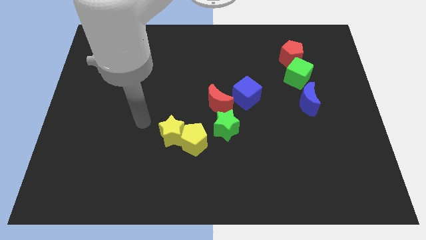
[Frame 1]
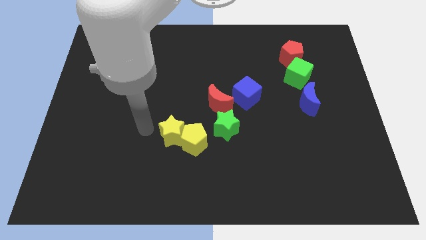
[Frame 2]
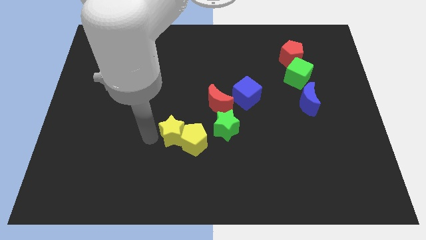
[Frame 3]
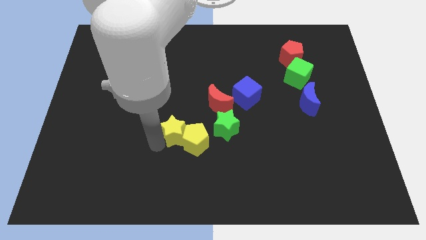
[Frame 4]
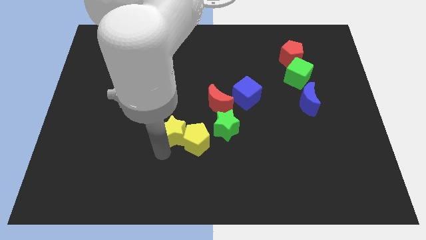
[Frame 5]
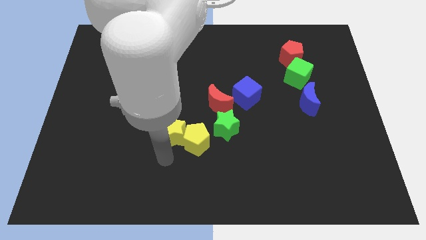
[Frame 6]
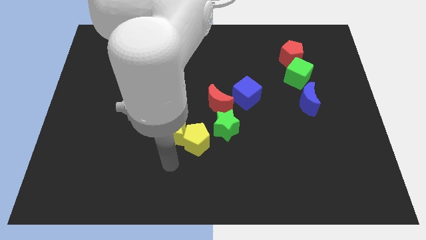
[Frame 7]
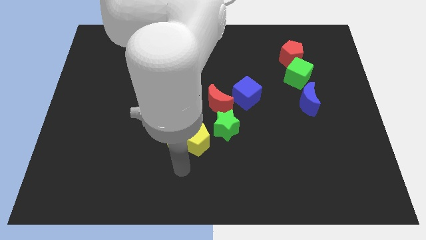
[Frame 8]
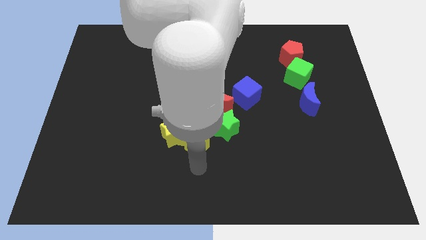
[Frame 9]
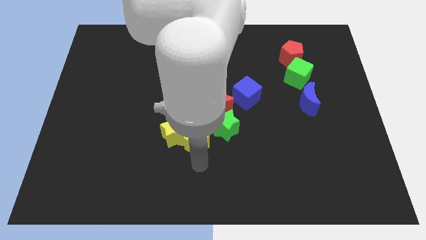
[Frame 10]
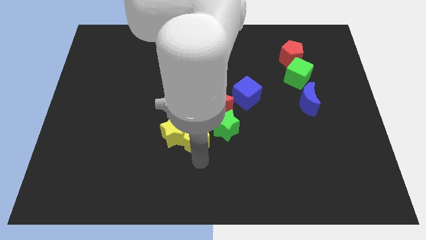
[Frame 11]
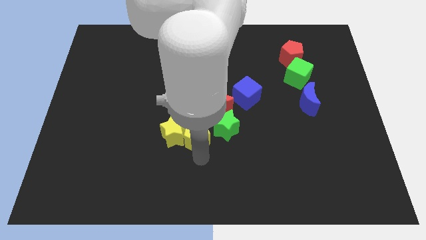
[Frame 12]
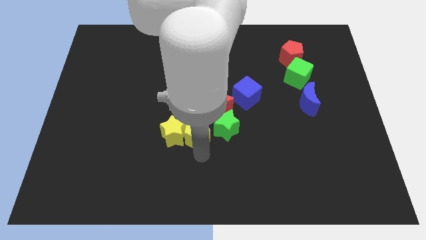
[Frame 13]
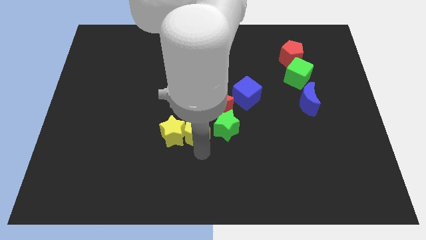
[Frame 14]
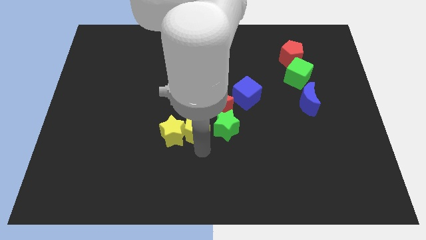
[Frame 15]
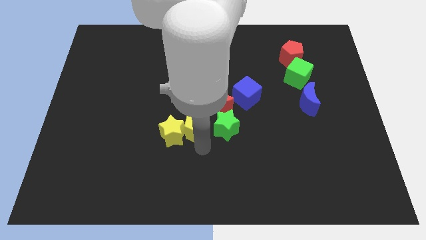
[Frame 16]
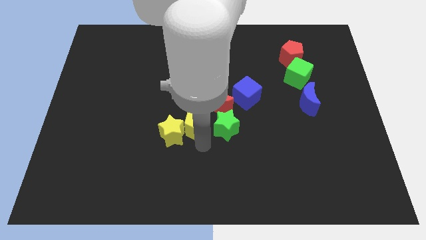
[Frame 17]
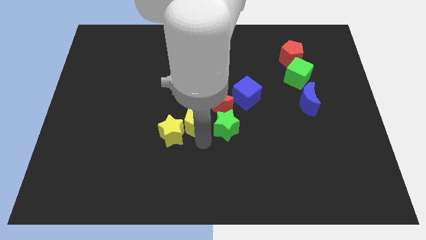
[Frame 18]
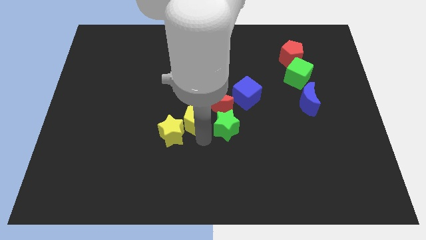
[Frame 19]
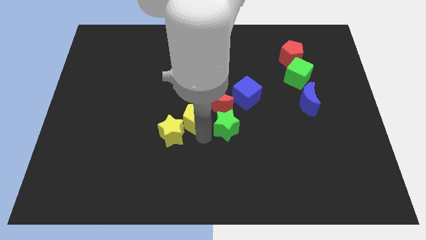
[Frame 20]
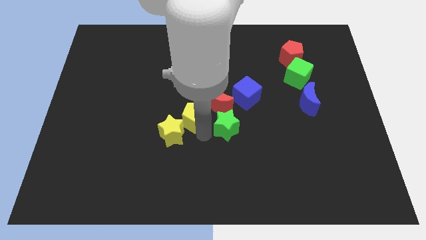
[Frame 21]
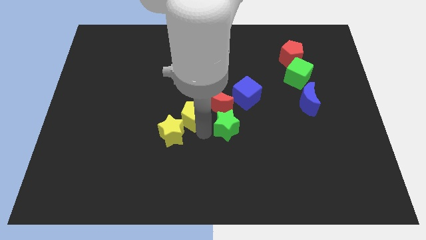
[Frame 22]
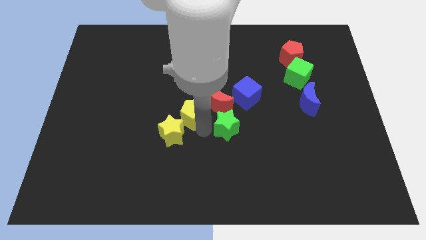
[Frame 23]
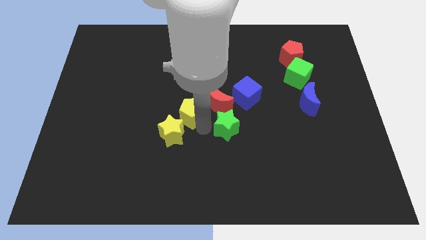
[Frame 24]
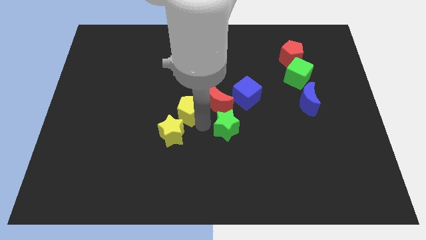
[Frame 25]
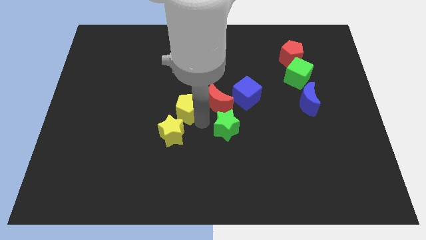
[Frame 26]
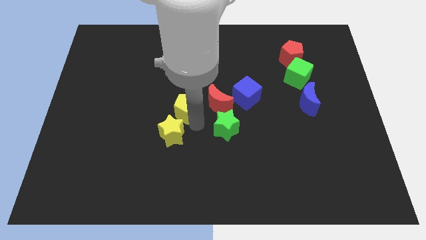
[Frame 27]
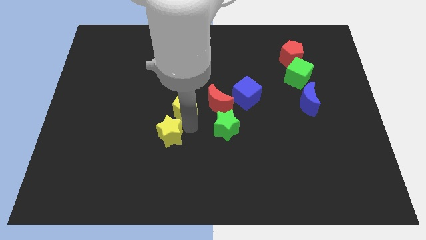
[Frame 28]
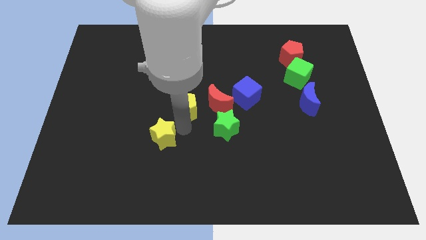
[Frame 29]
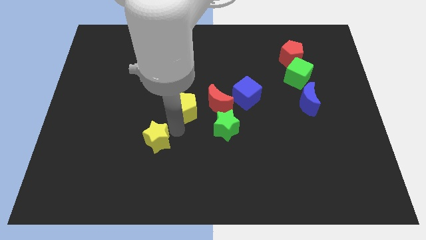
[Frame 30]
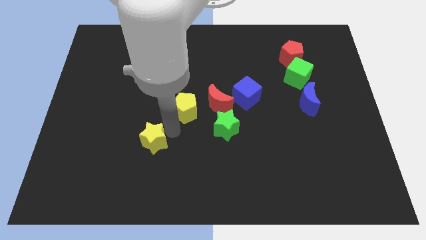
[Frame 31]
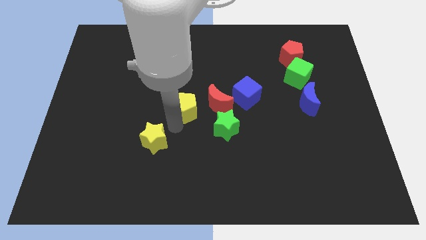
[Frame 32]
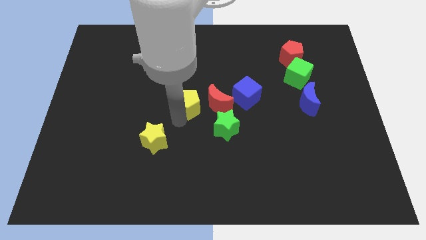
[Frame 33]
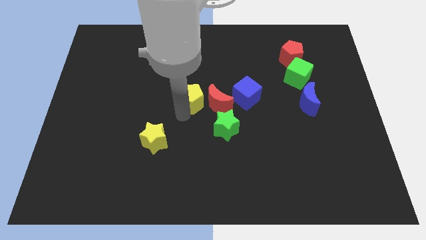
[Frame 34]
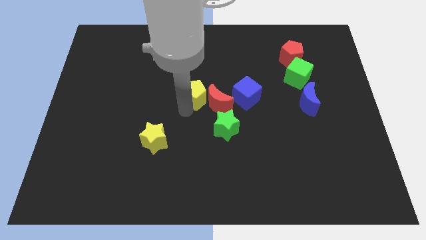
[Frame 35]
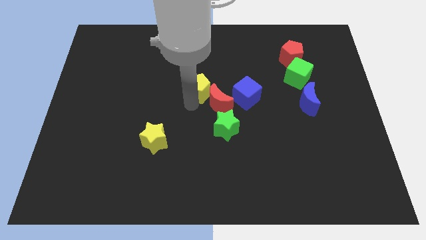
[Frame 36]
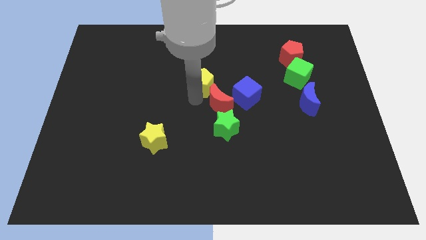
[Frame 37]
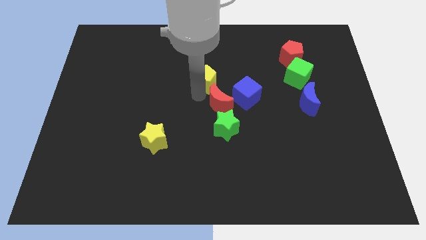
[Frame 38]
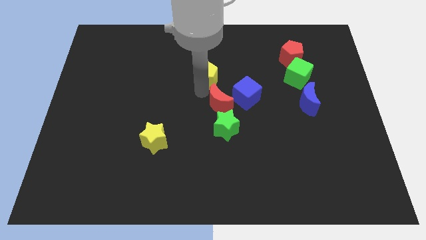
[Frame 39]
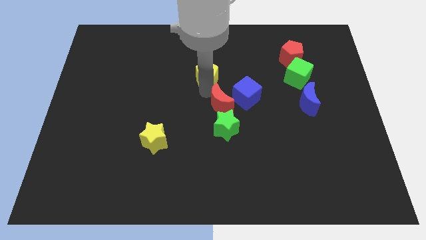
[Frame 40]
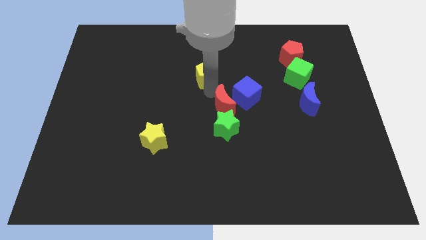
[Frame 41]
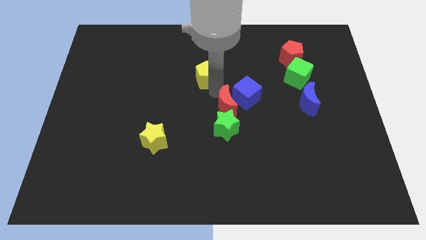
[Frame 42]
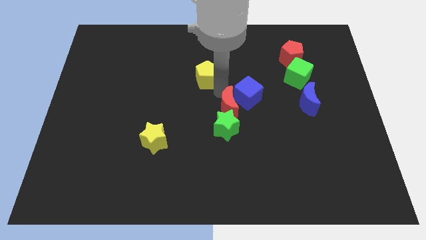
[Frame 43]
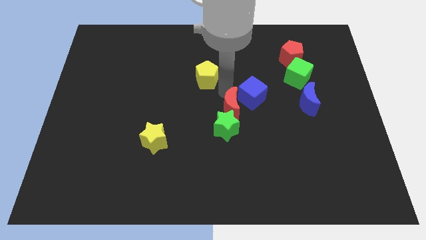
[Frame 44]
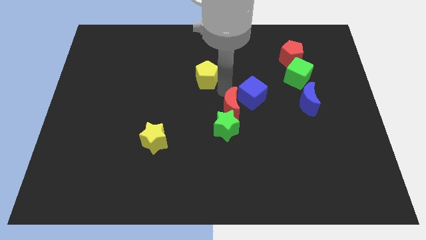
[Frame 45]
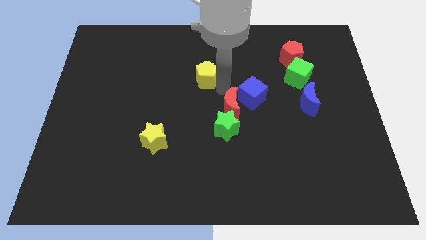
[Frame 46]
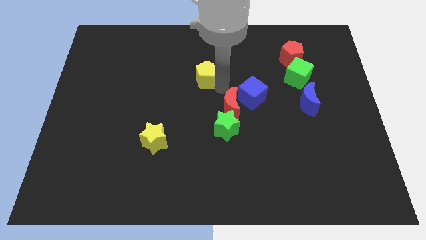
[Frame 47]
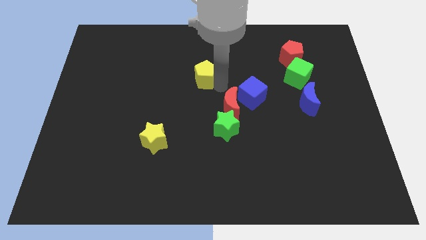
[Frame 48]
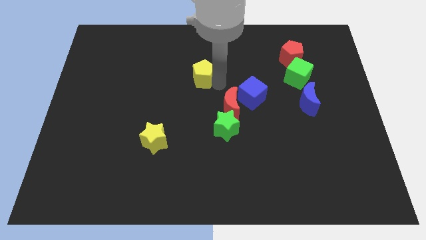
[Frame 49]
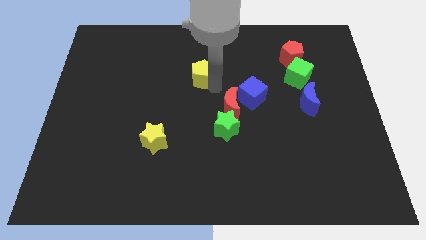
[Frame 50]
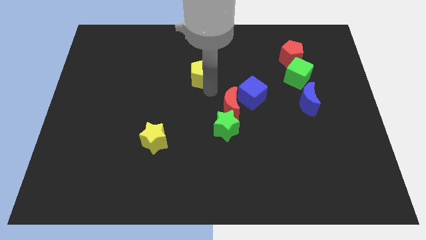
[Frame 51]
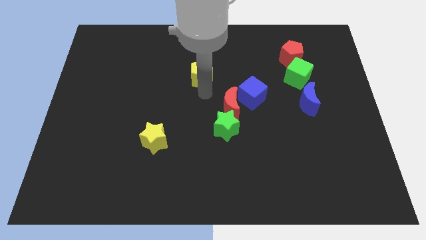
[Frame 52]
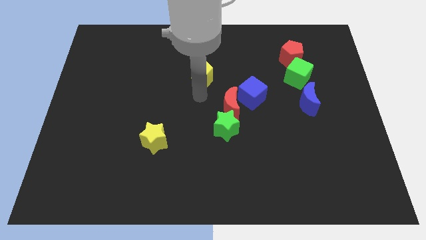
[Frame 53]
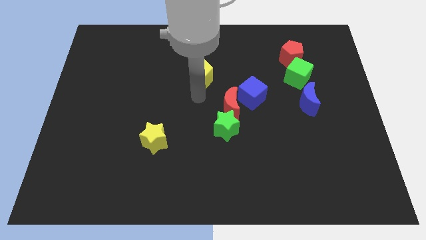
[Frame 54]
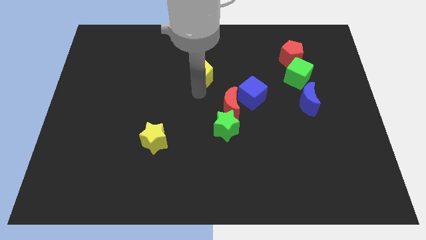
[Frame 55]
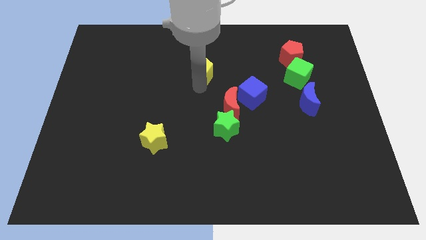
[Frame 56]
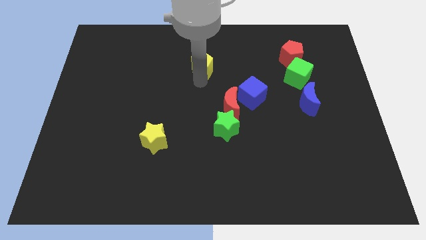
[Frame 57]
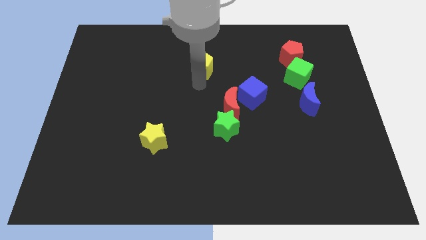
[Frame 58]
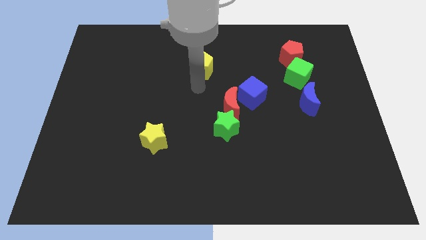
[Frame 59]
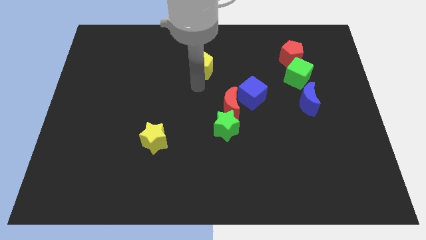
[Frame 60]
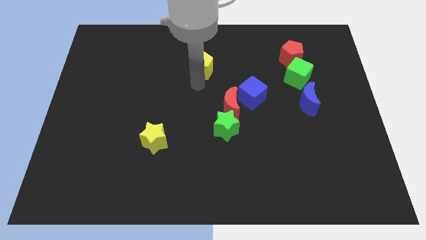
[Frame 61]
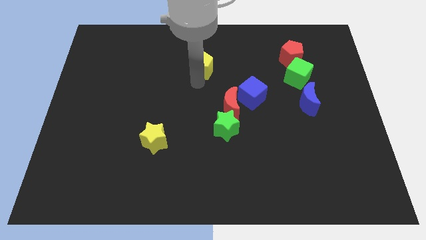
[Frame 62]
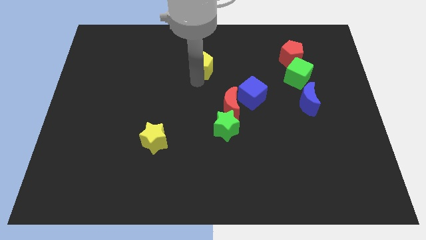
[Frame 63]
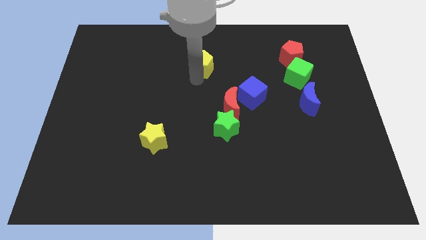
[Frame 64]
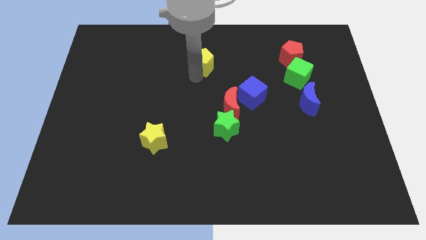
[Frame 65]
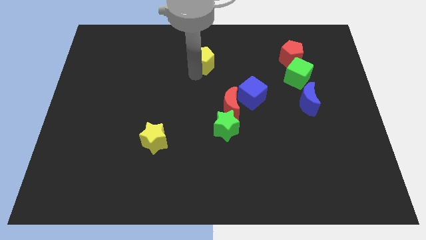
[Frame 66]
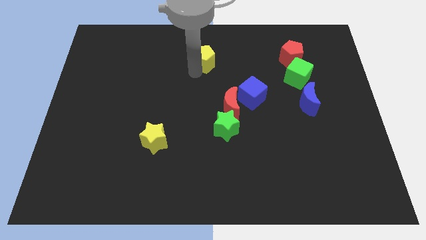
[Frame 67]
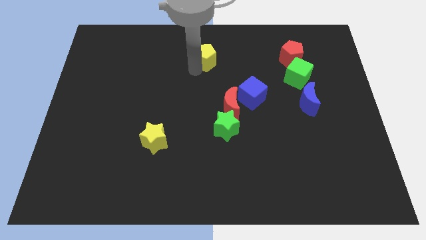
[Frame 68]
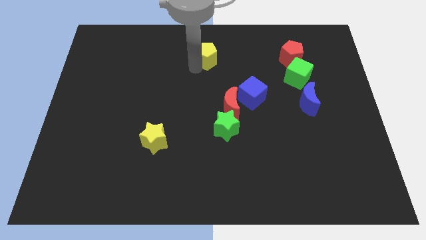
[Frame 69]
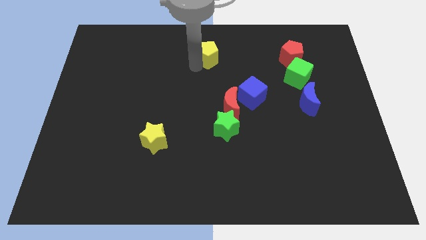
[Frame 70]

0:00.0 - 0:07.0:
move the yellow pentagon to the top side
